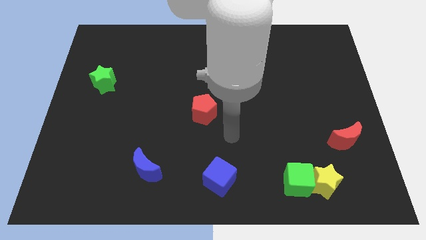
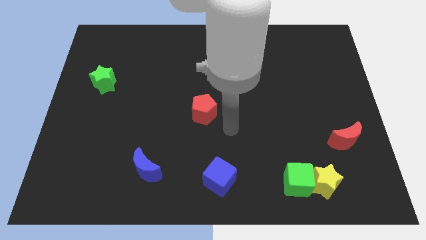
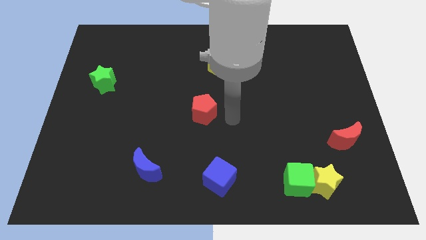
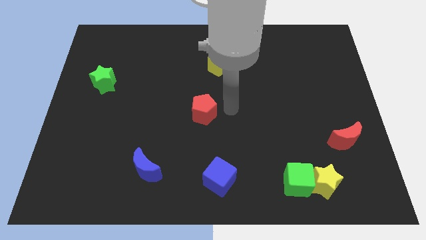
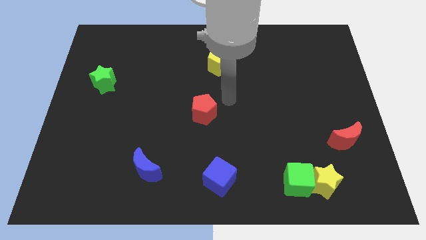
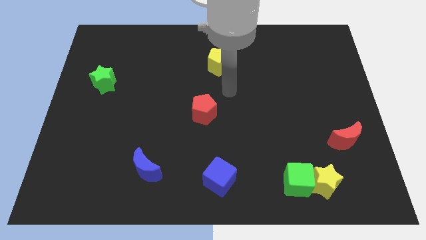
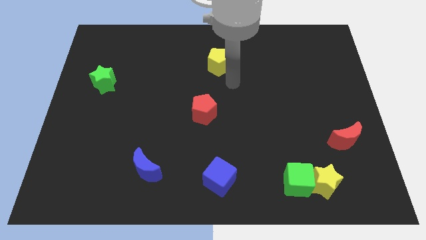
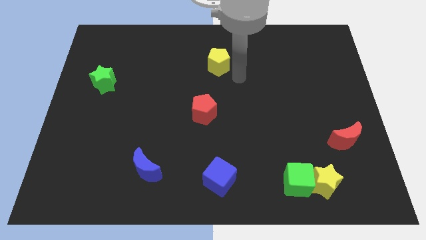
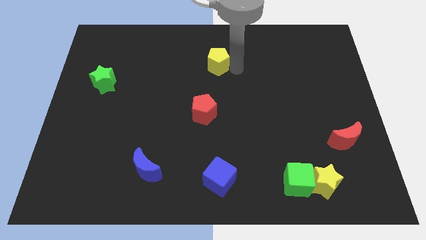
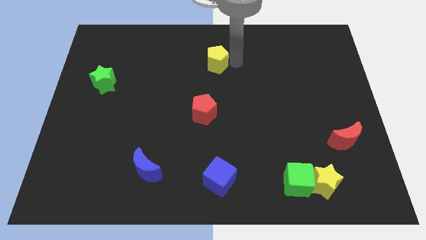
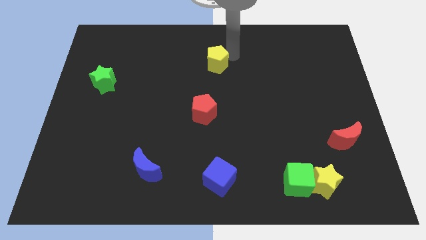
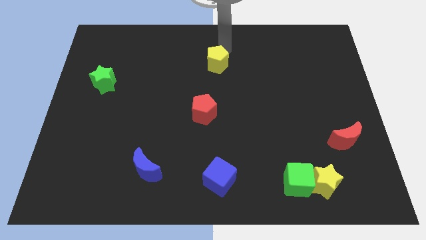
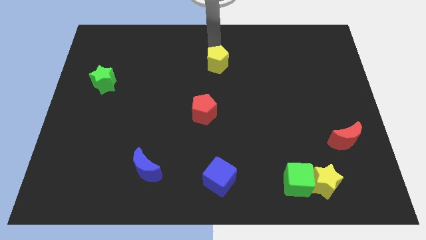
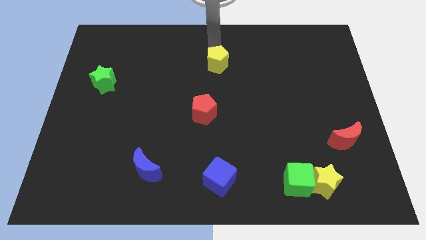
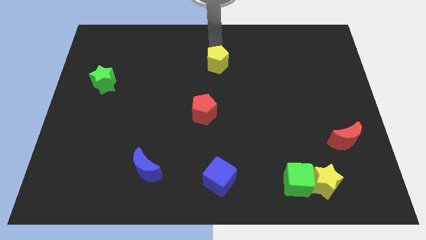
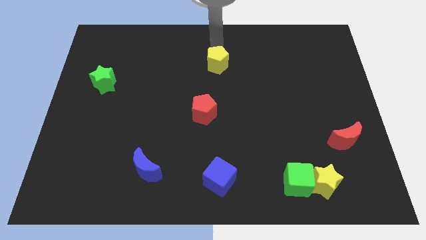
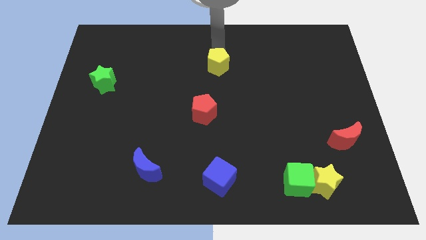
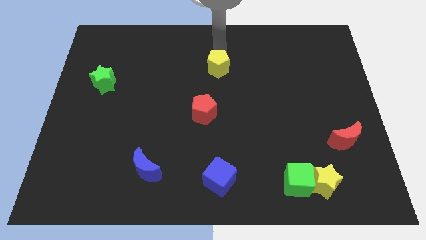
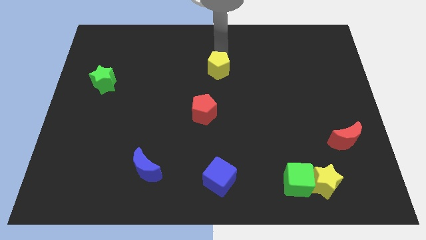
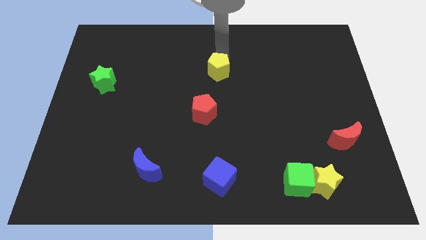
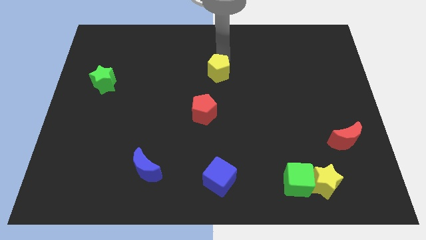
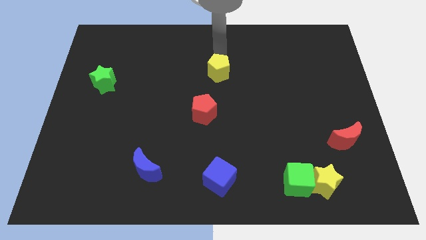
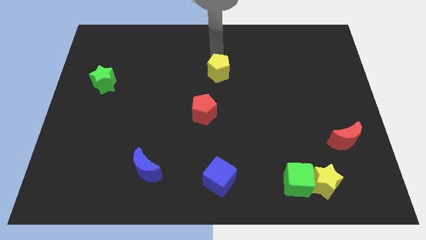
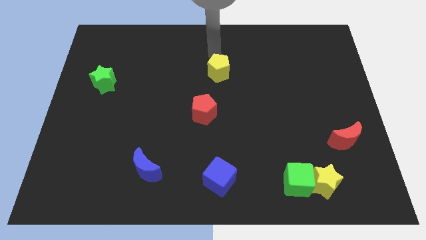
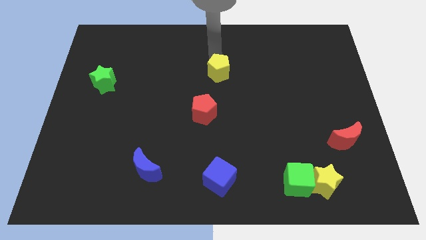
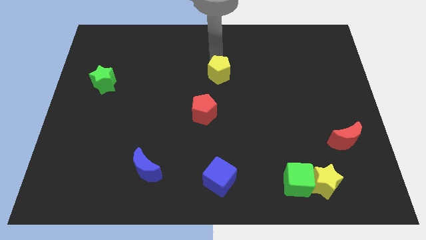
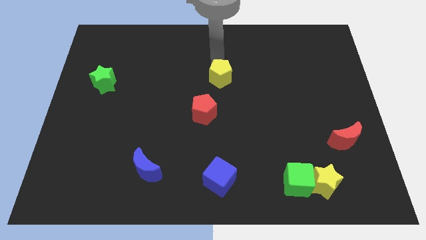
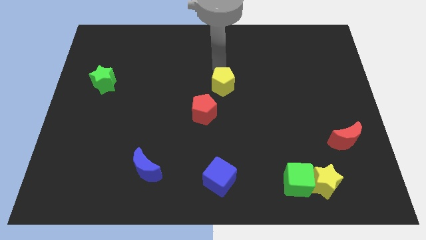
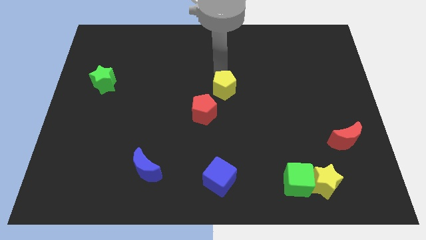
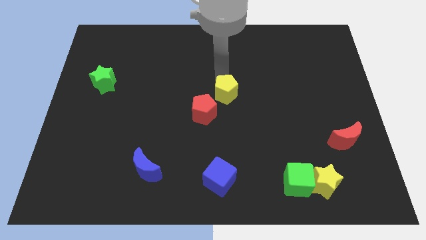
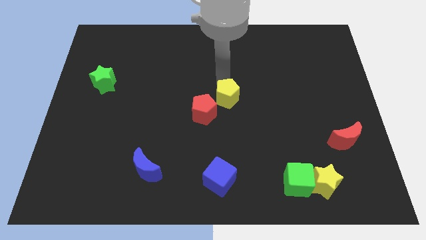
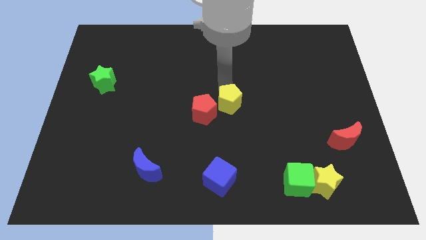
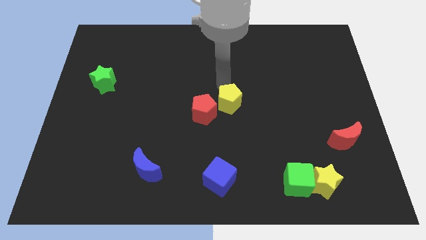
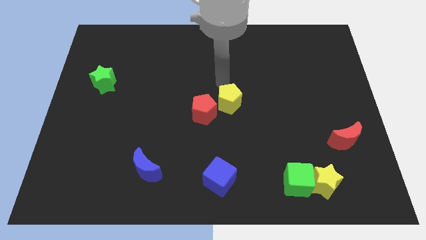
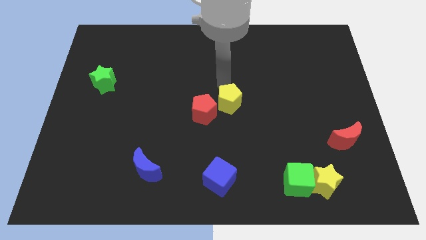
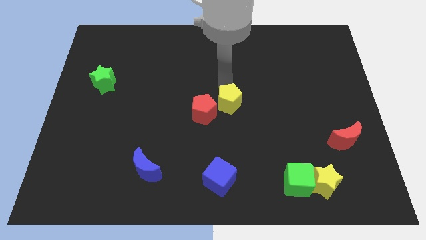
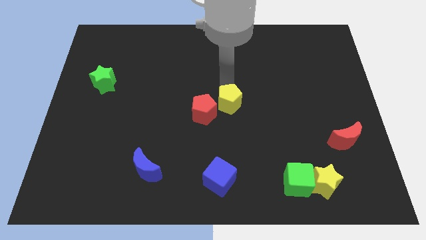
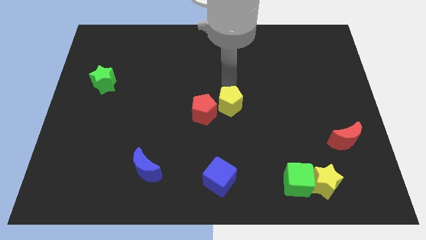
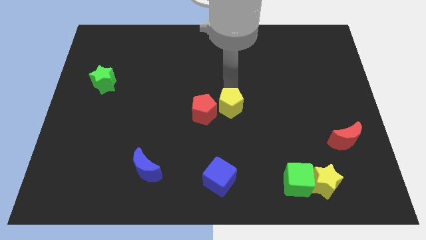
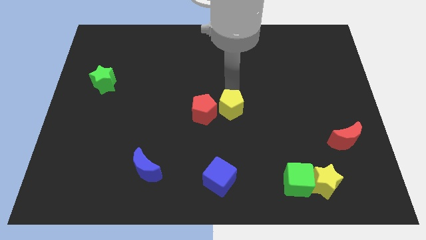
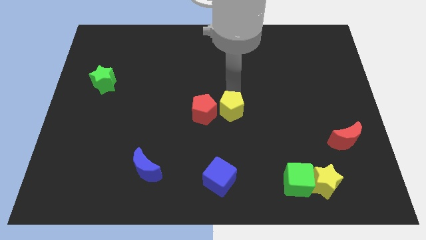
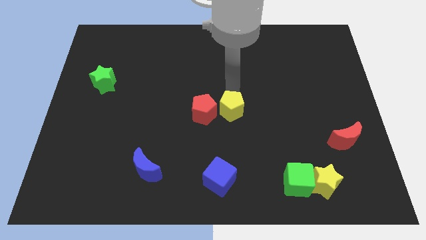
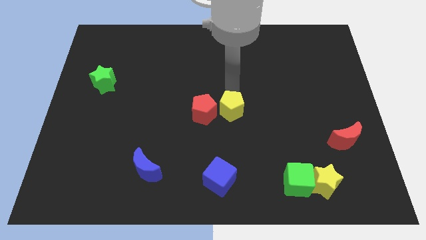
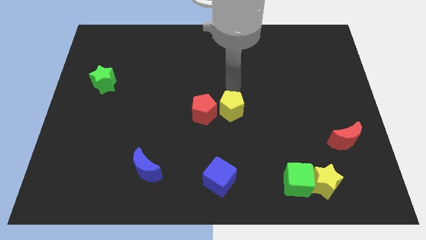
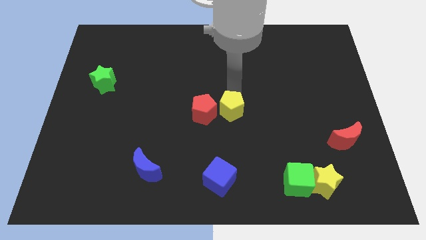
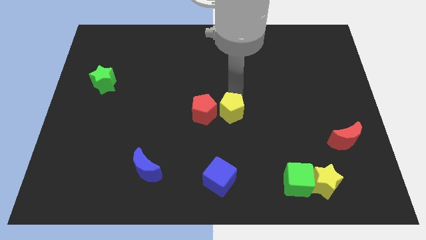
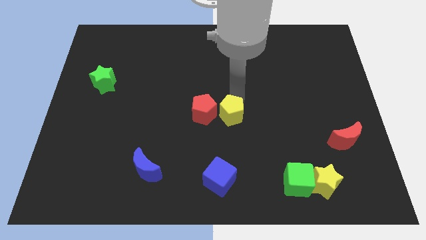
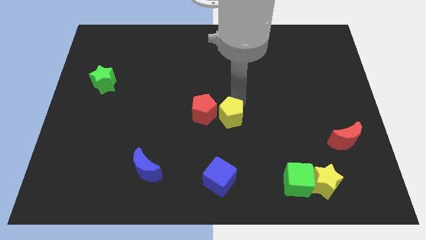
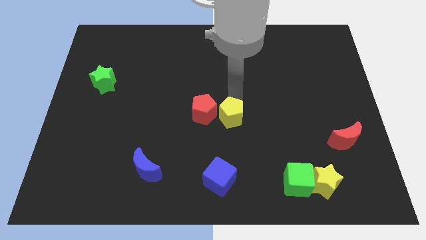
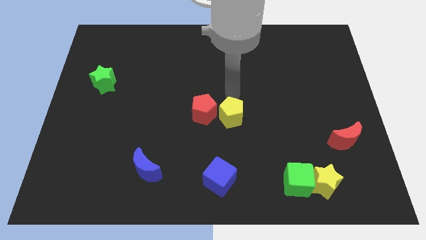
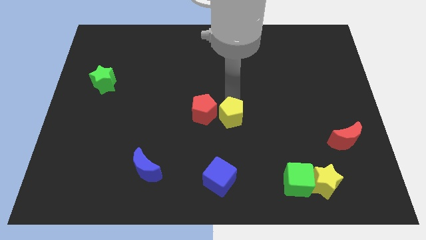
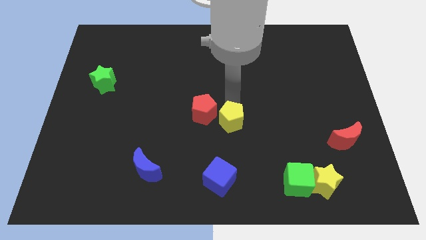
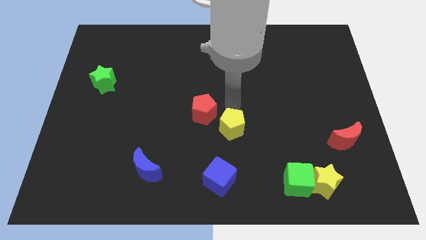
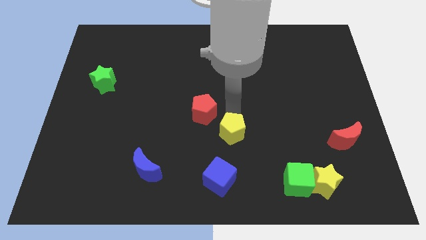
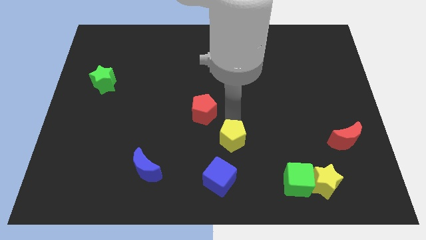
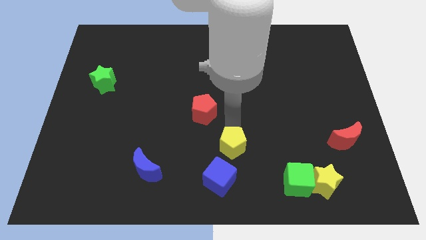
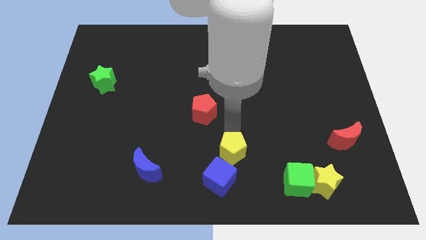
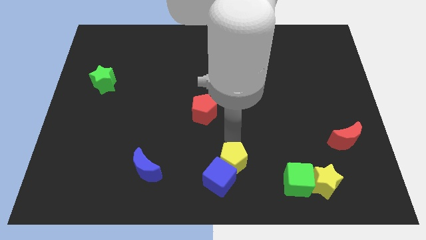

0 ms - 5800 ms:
slide the yellow pentagon to the bottom side

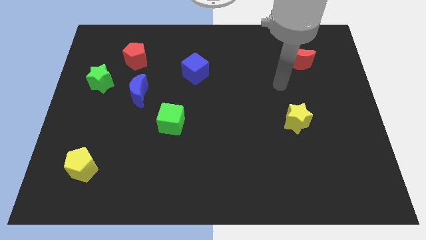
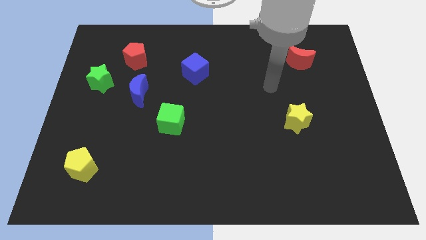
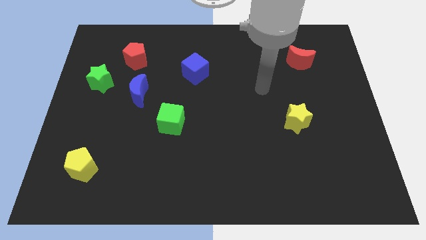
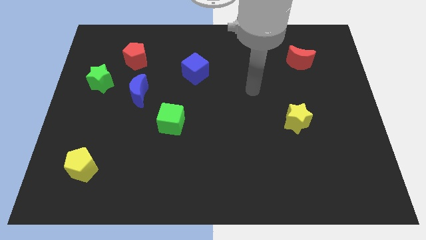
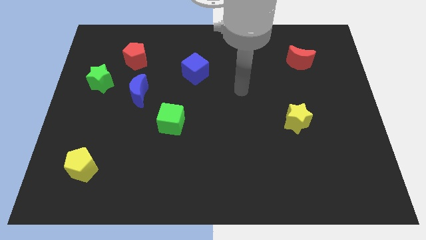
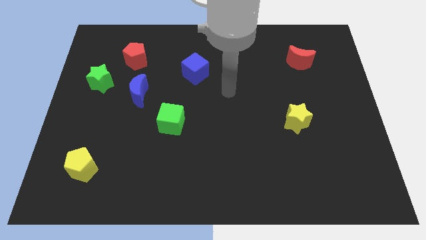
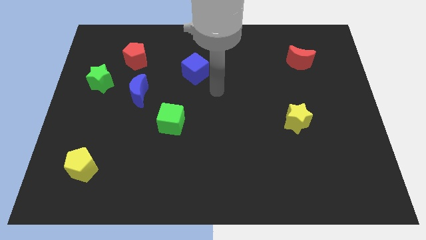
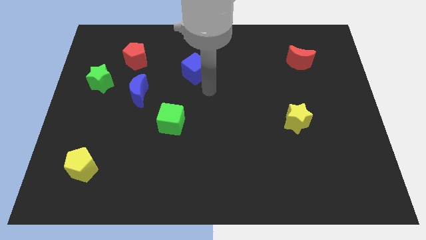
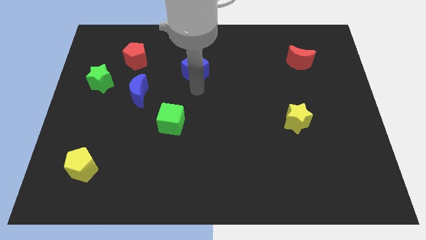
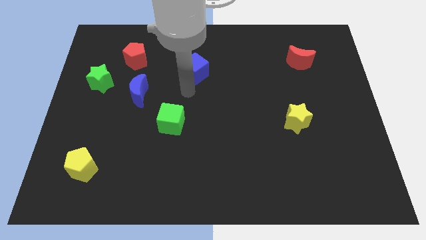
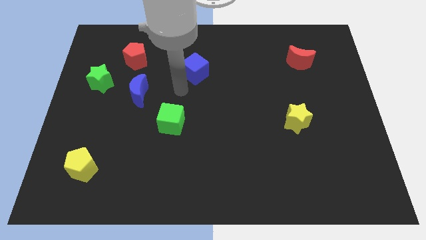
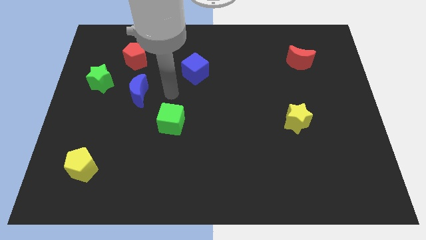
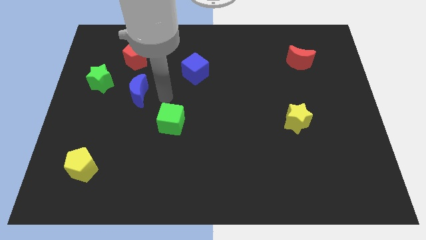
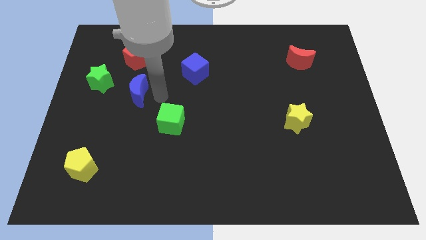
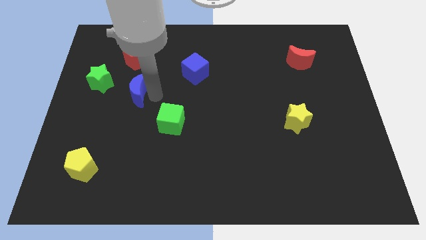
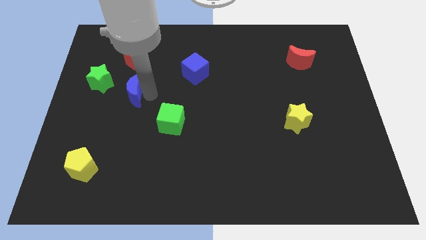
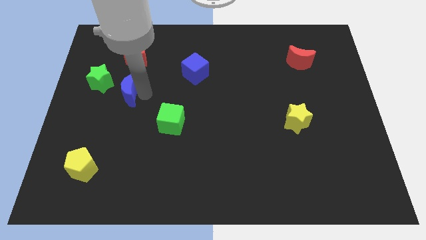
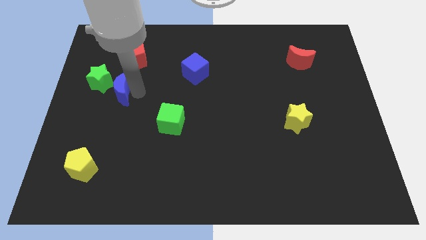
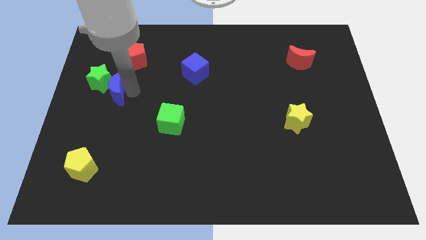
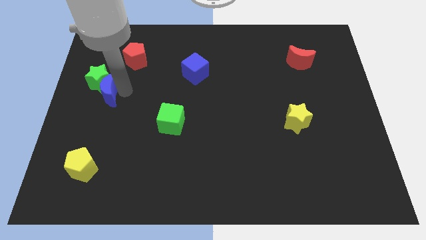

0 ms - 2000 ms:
push the blue moon to the left side of the board
